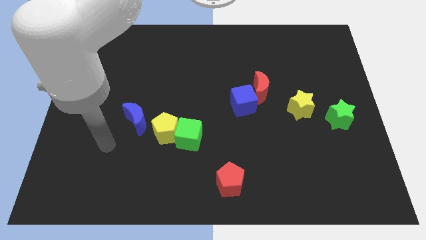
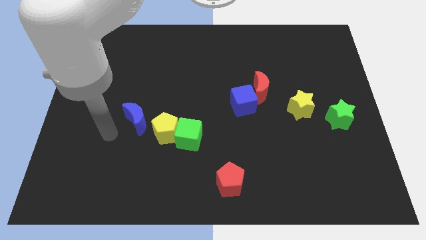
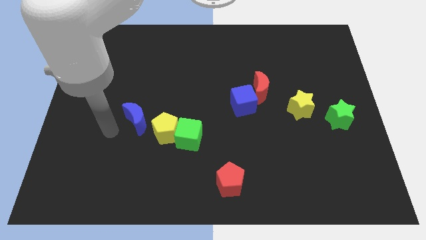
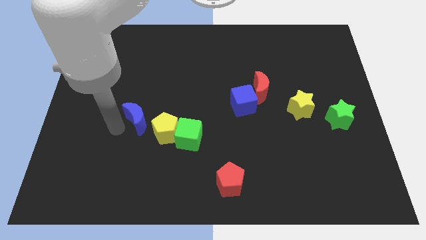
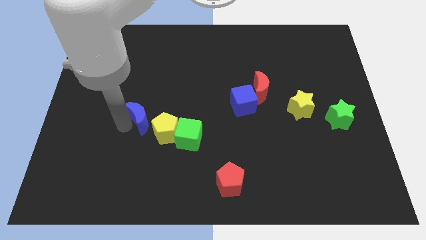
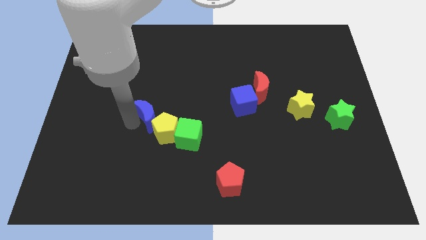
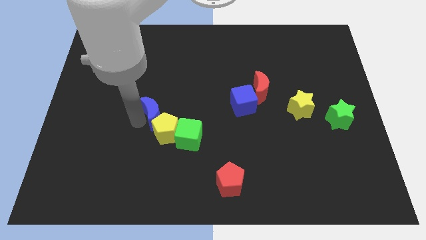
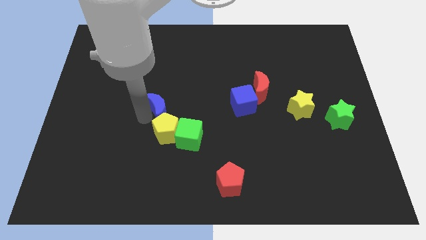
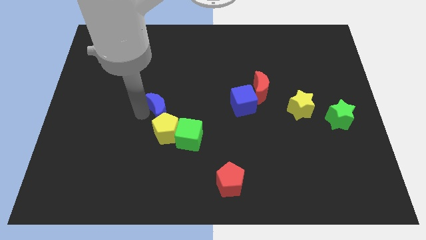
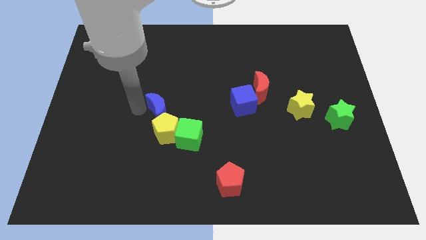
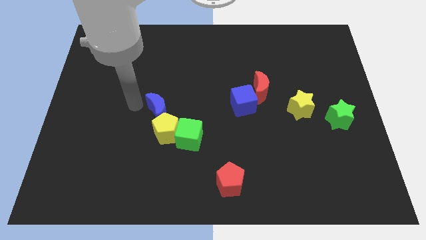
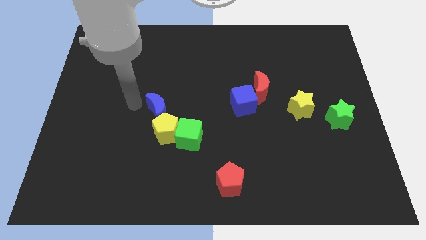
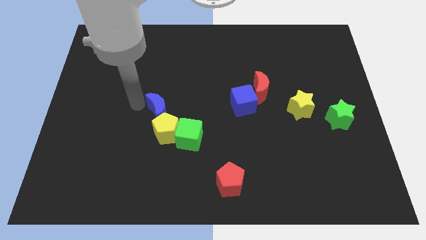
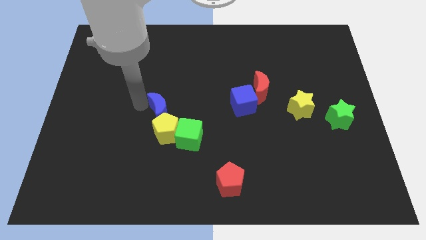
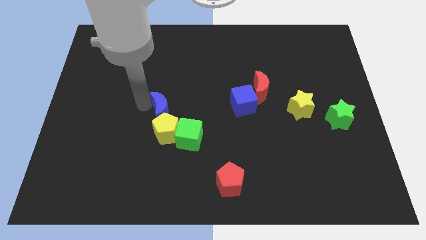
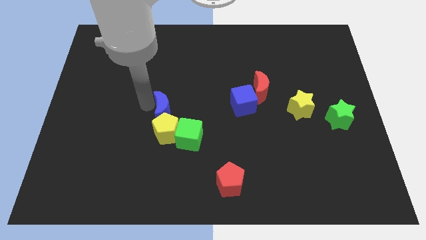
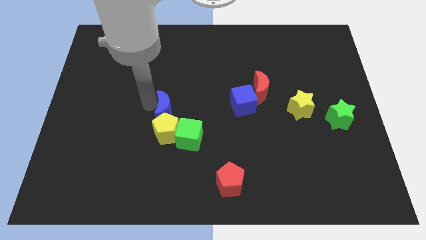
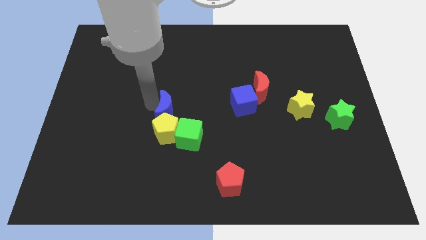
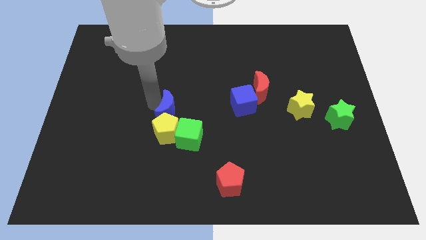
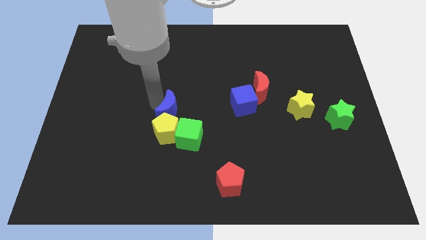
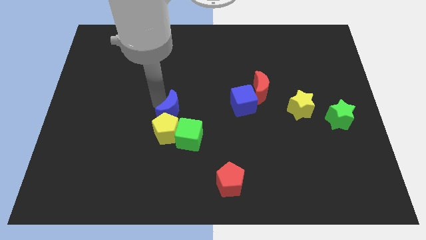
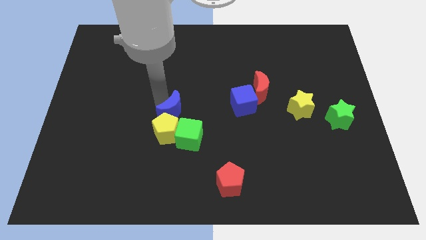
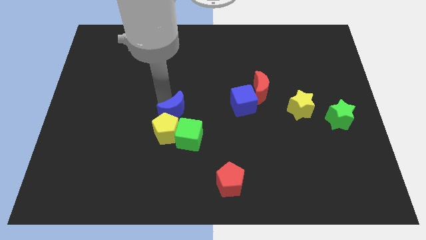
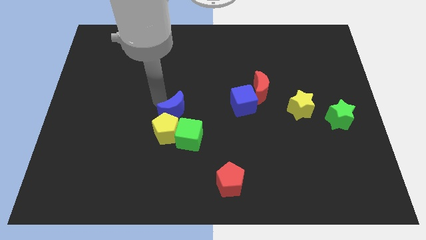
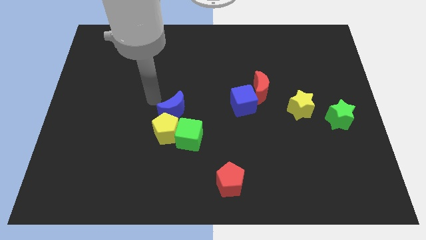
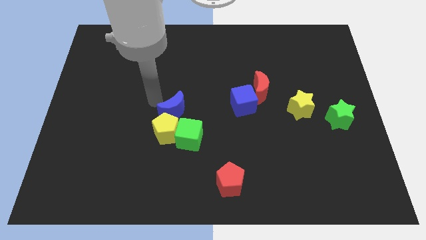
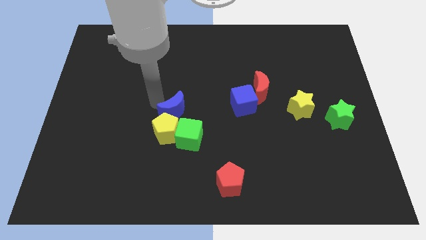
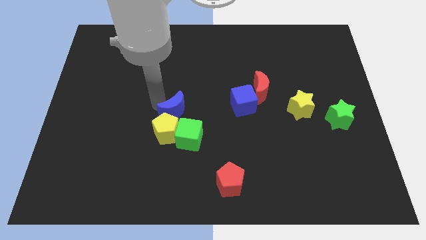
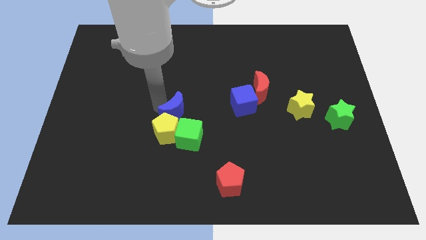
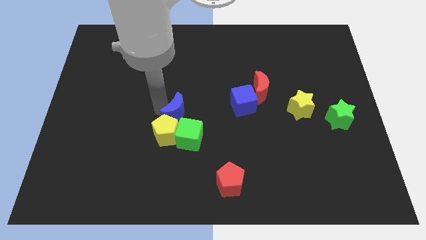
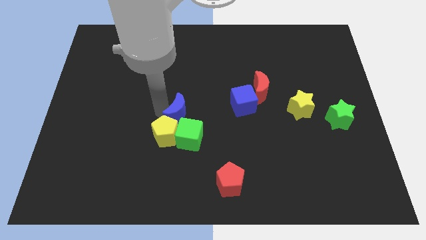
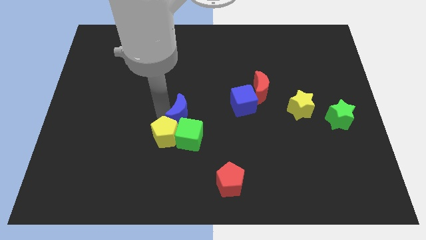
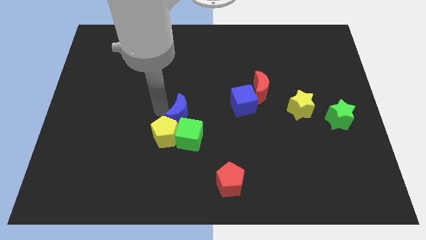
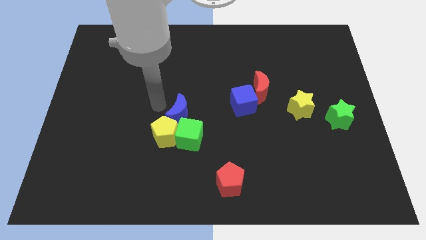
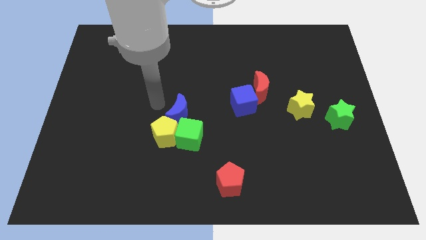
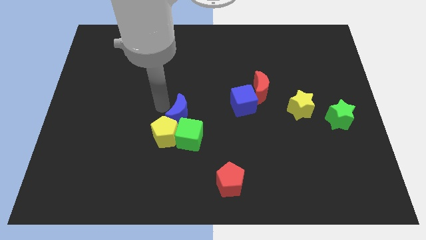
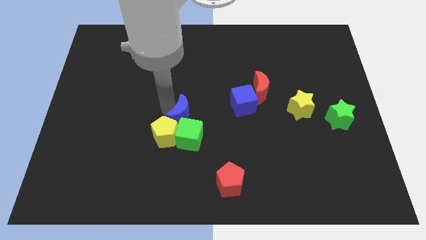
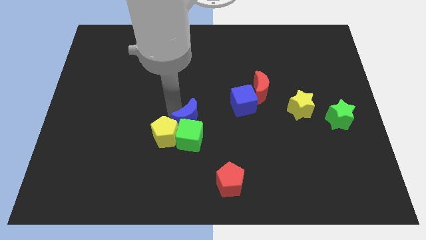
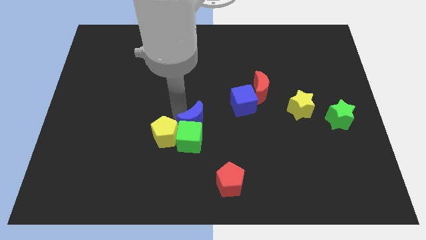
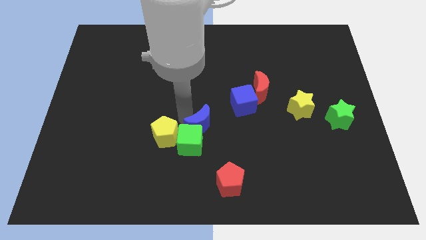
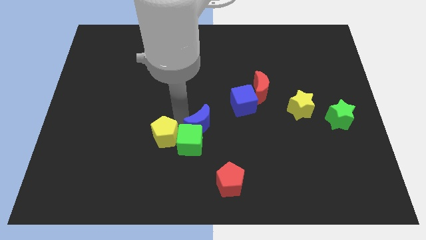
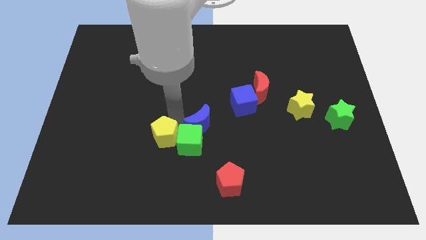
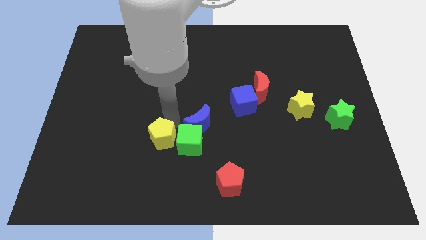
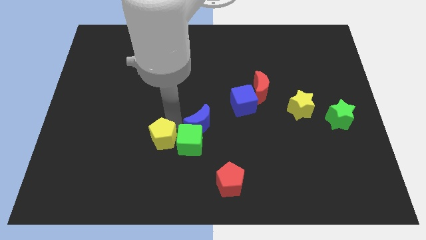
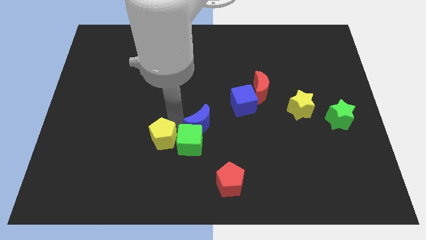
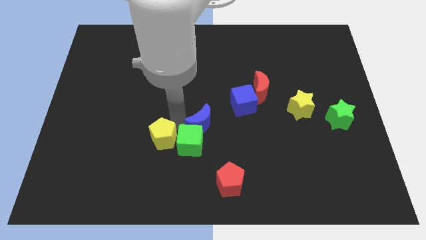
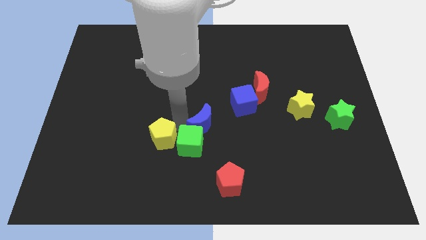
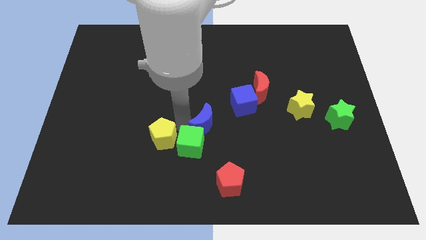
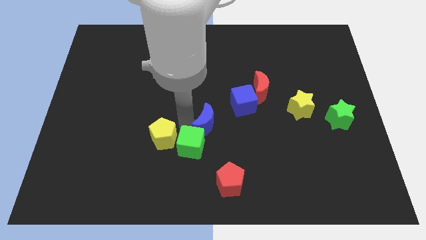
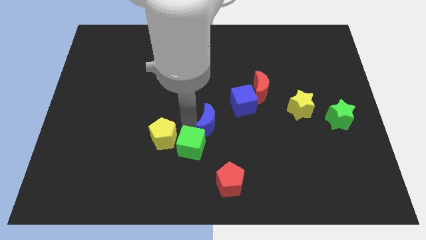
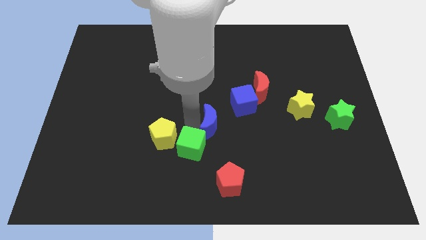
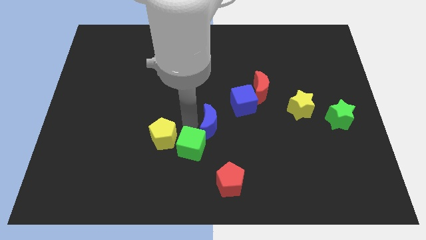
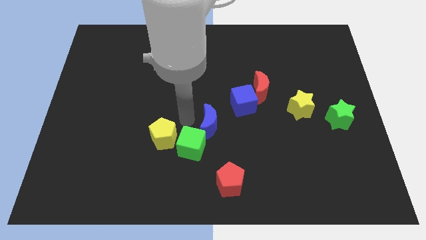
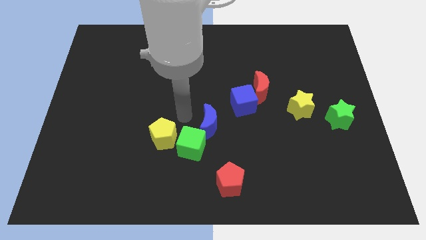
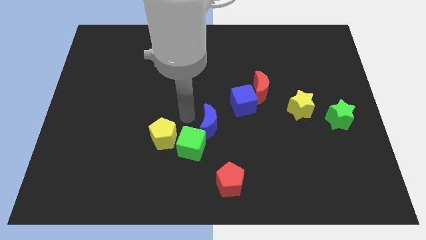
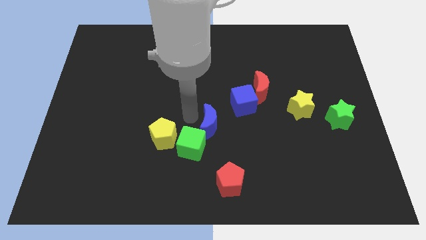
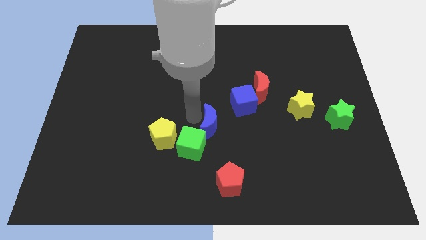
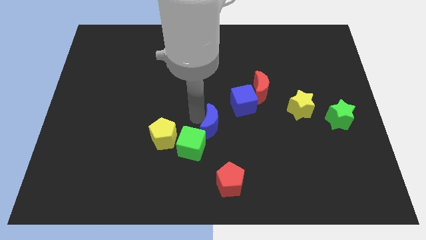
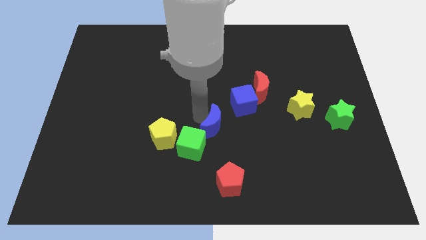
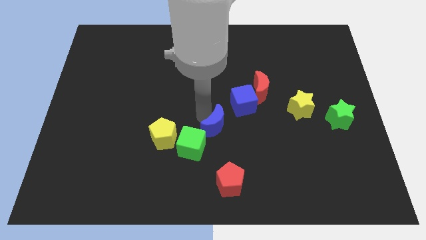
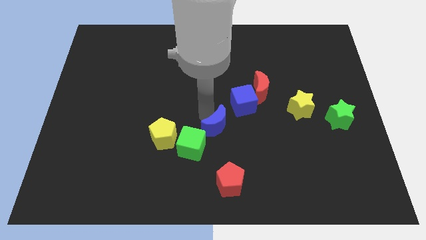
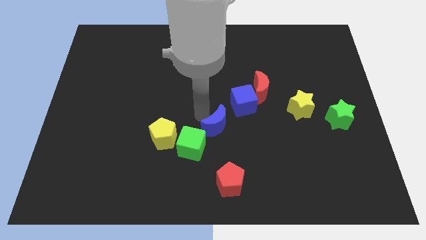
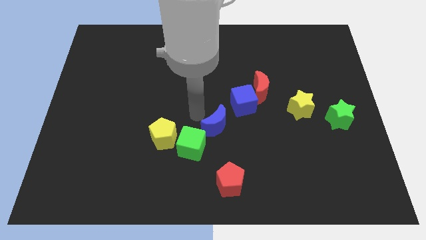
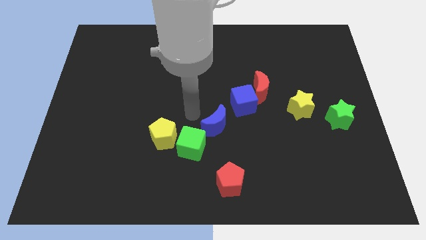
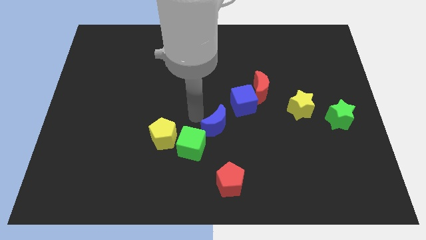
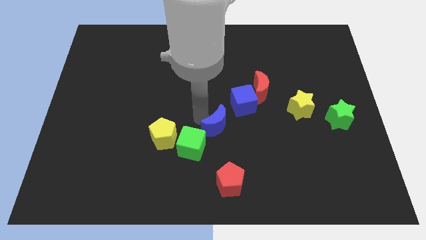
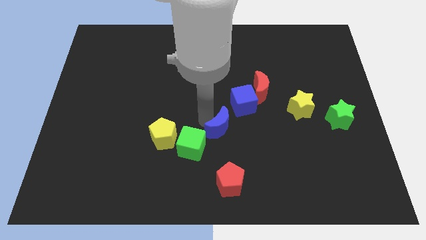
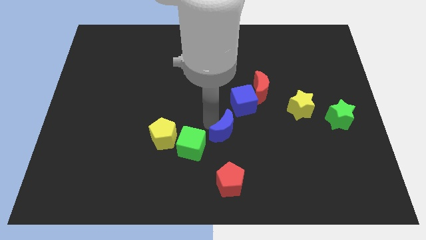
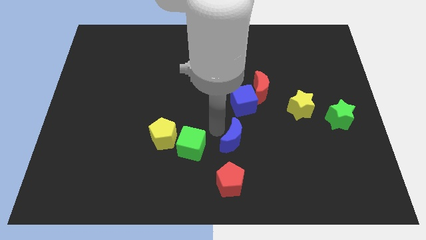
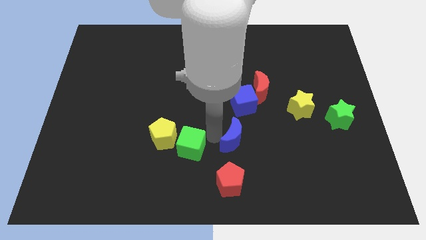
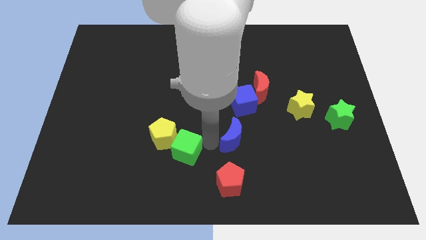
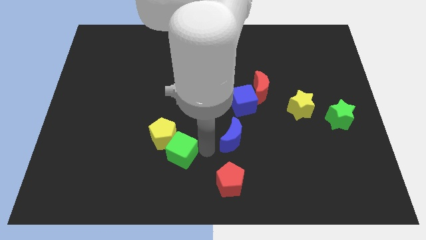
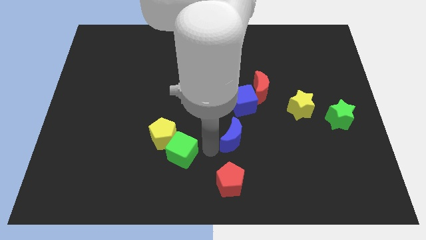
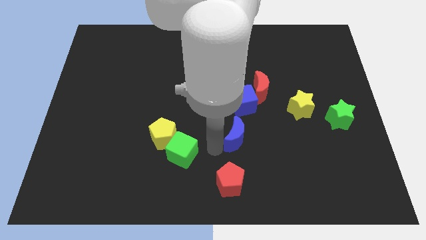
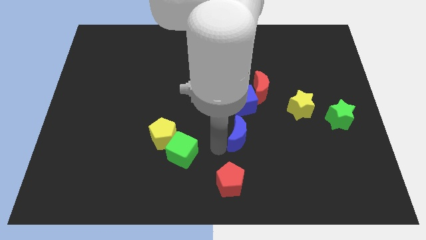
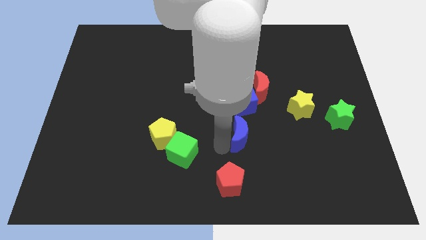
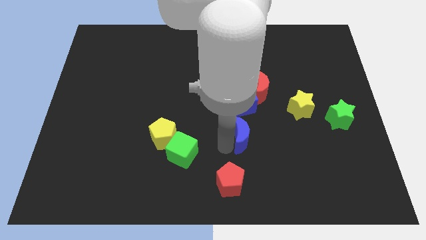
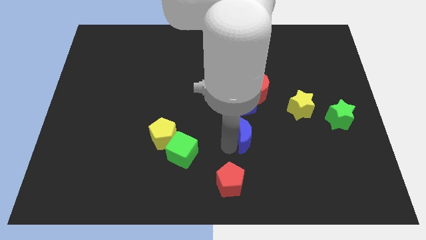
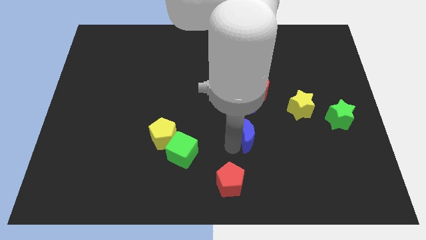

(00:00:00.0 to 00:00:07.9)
put the blue moon to the bottom of the red moon

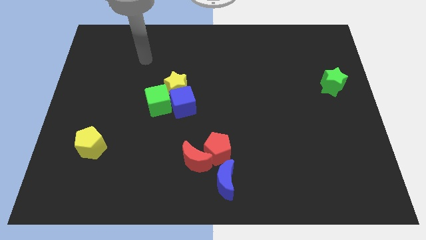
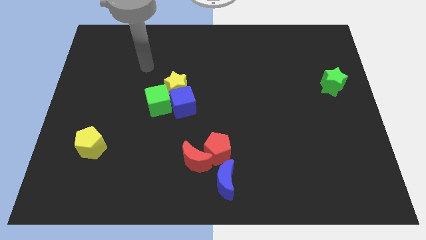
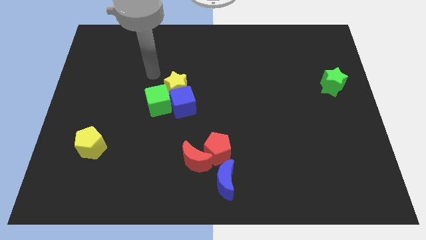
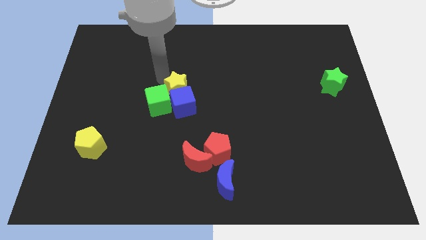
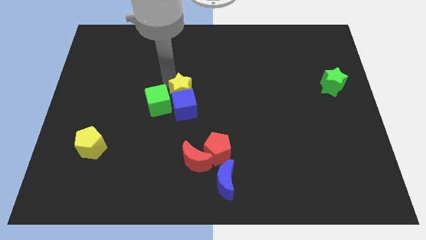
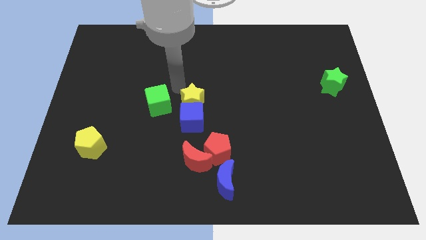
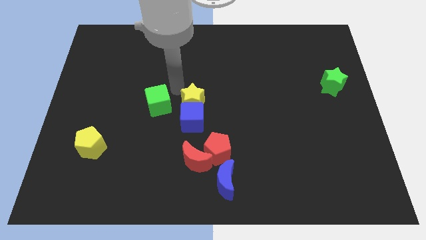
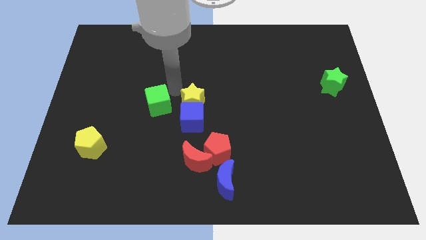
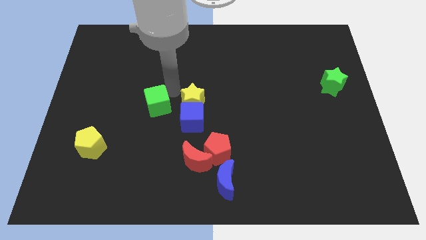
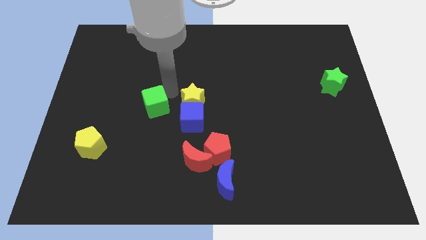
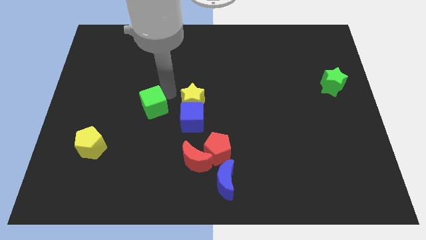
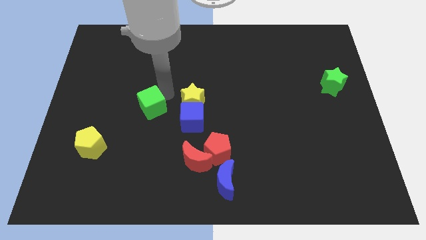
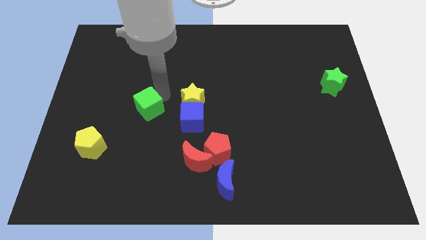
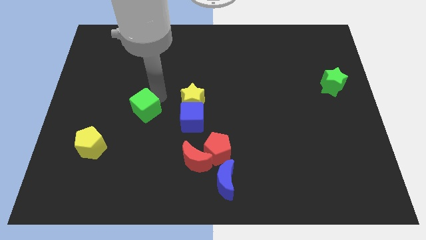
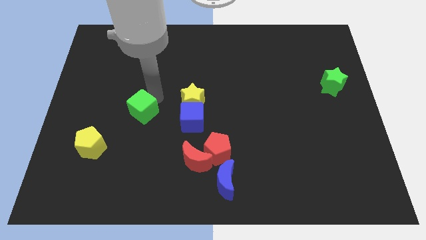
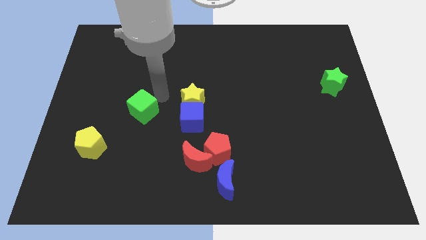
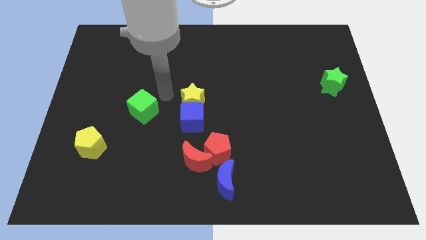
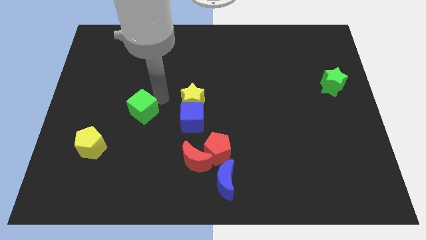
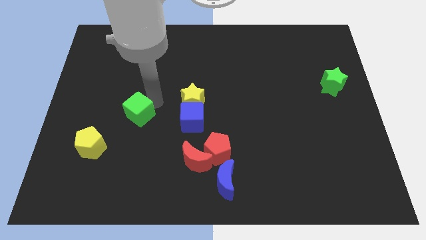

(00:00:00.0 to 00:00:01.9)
move the green cube to the top right of the yellow pentagon
